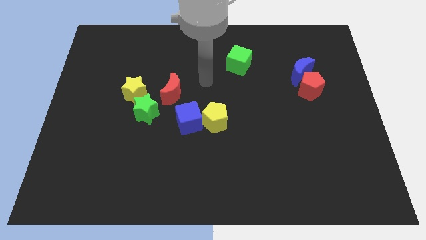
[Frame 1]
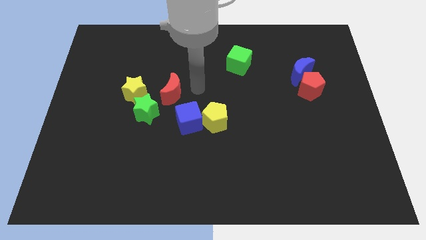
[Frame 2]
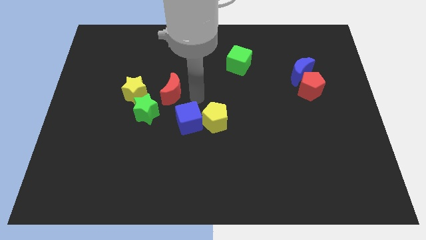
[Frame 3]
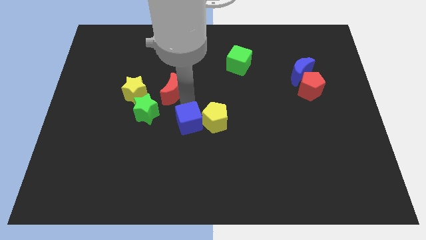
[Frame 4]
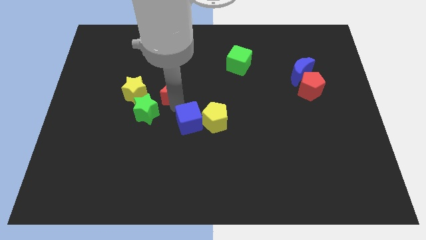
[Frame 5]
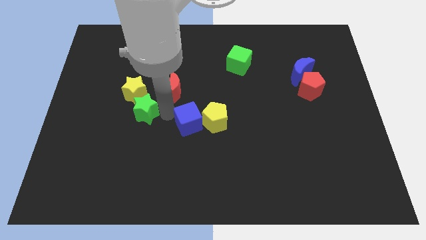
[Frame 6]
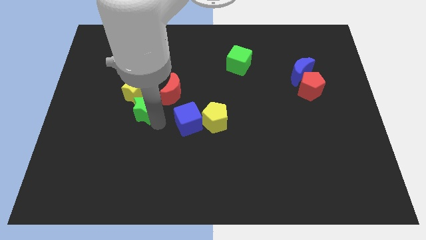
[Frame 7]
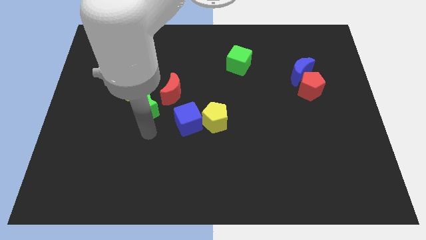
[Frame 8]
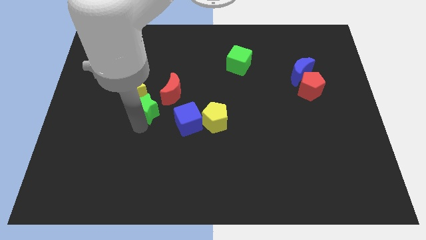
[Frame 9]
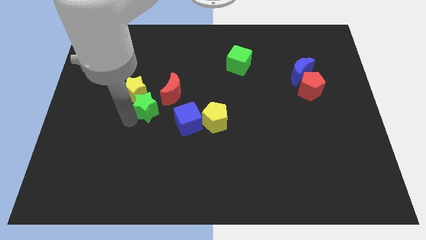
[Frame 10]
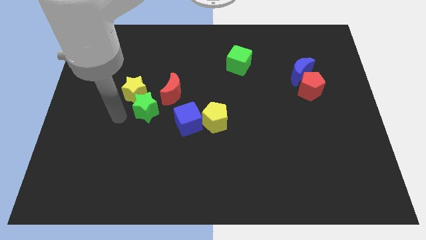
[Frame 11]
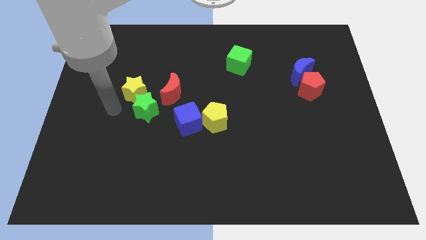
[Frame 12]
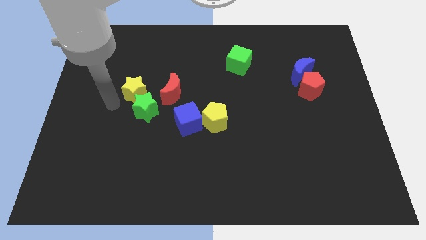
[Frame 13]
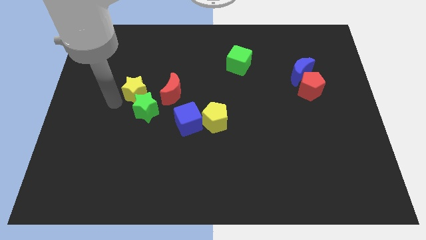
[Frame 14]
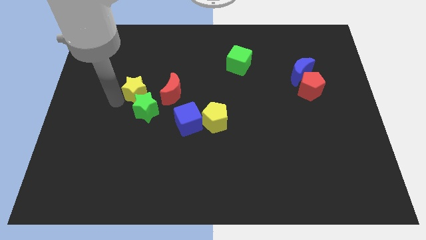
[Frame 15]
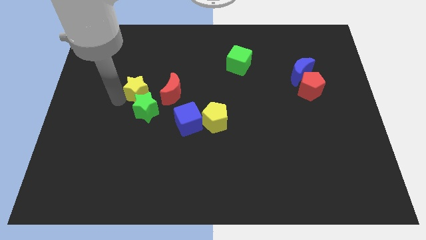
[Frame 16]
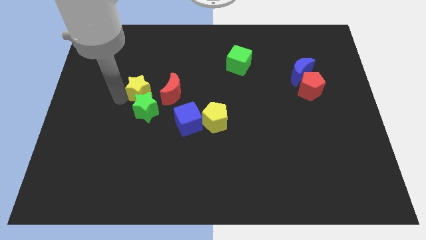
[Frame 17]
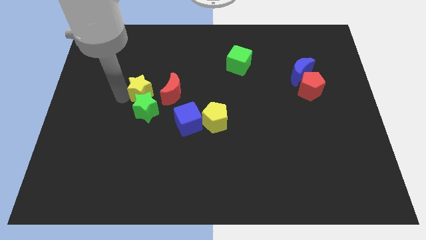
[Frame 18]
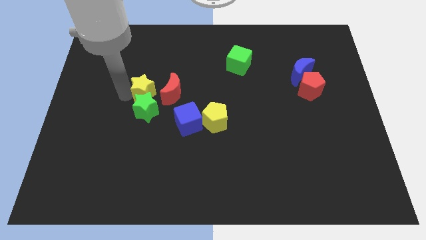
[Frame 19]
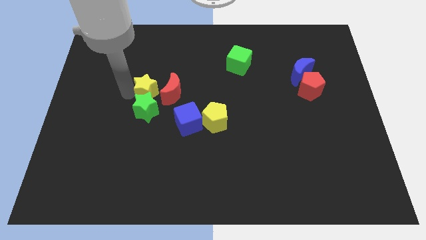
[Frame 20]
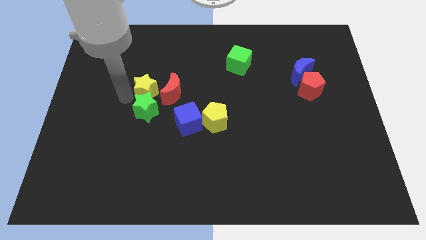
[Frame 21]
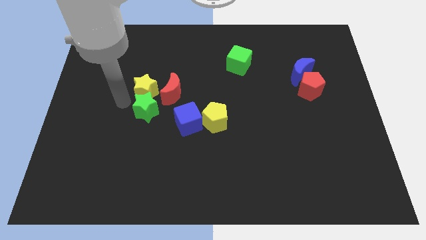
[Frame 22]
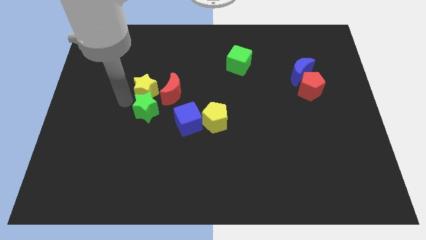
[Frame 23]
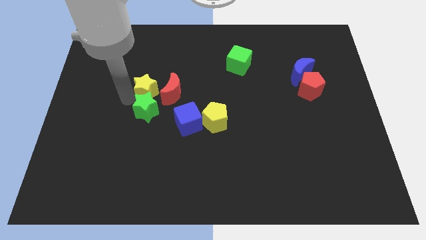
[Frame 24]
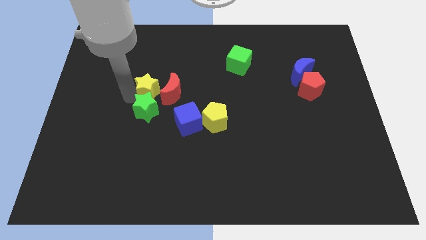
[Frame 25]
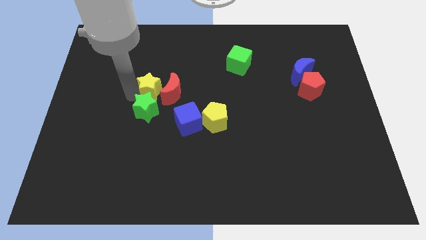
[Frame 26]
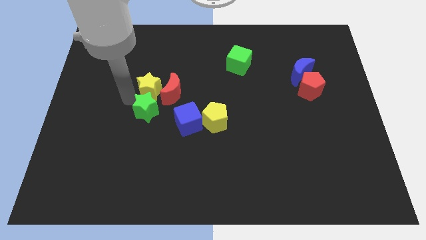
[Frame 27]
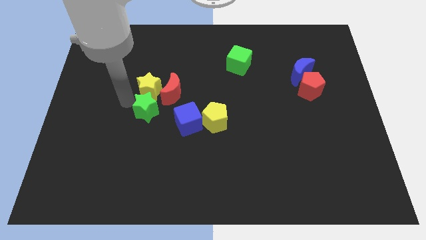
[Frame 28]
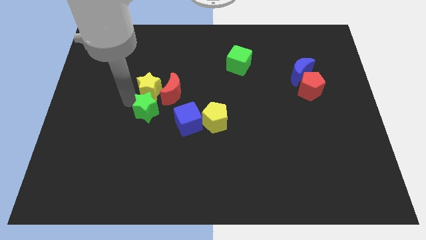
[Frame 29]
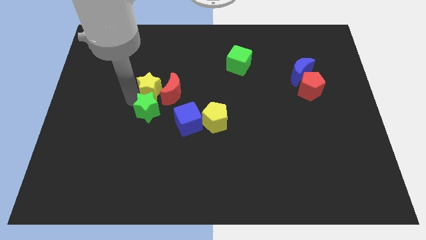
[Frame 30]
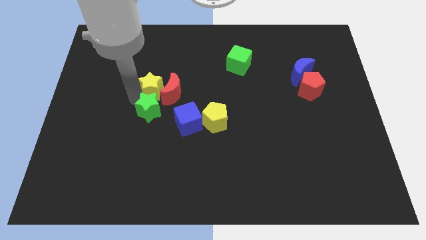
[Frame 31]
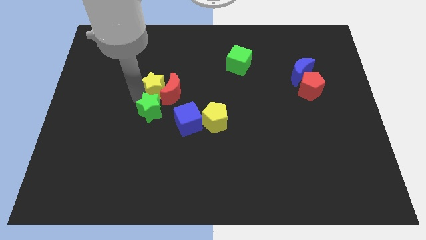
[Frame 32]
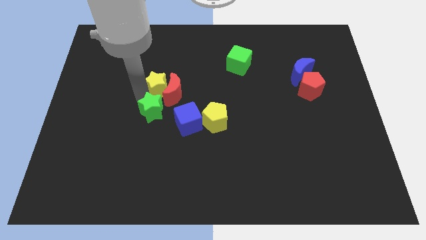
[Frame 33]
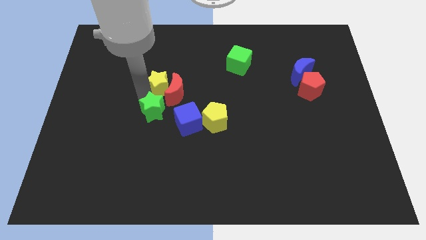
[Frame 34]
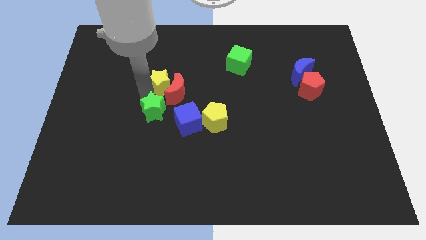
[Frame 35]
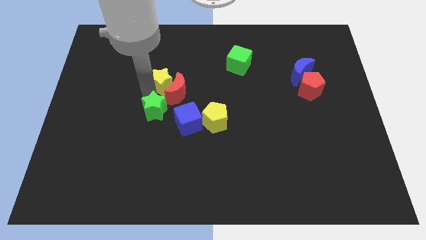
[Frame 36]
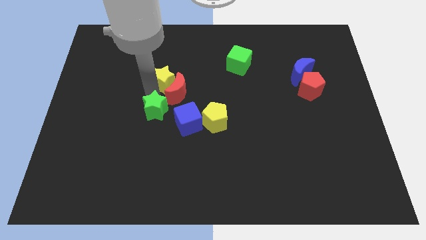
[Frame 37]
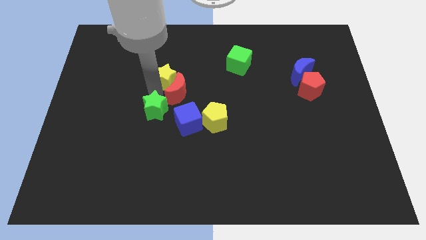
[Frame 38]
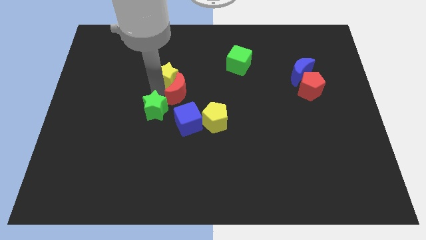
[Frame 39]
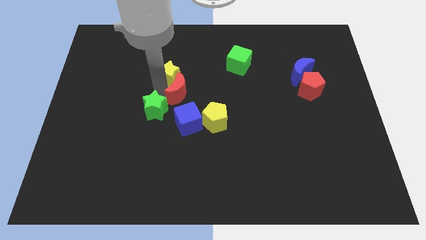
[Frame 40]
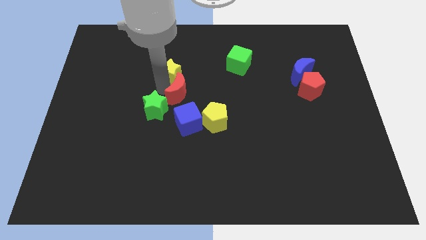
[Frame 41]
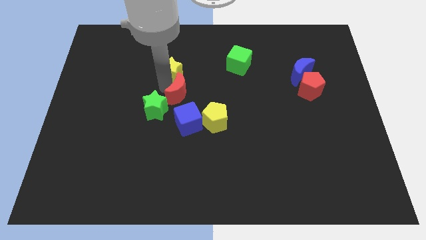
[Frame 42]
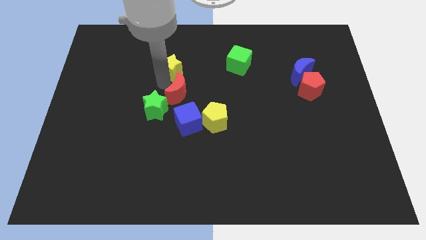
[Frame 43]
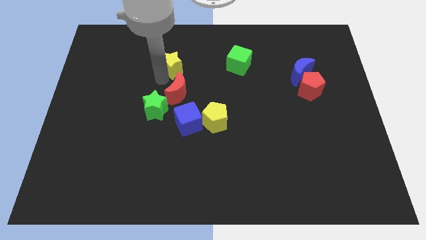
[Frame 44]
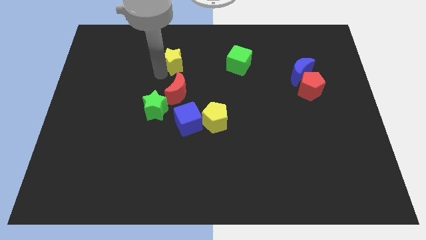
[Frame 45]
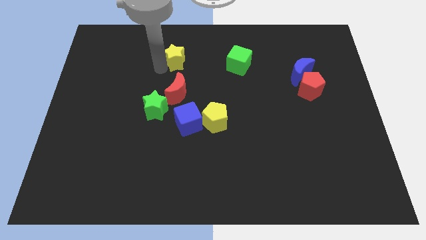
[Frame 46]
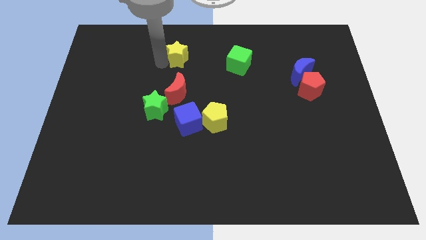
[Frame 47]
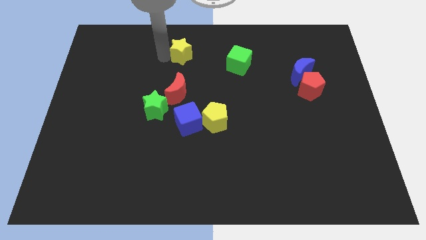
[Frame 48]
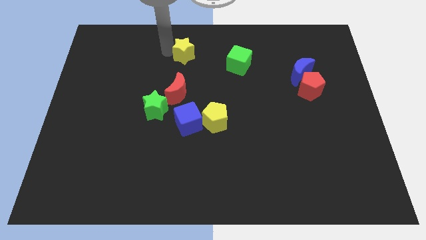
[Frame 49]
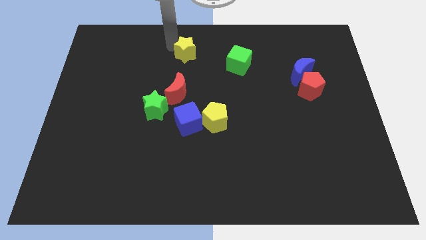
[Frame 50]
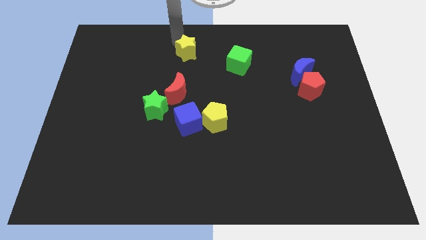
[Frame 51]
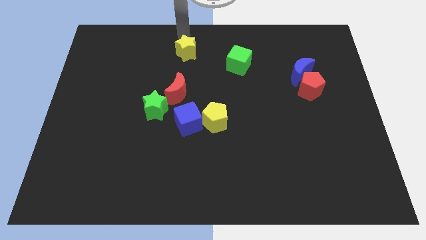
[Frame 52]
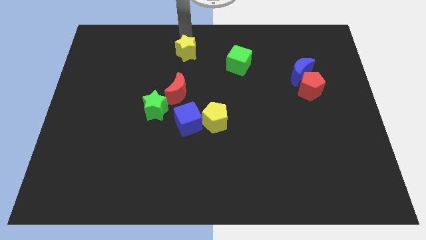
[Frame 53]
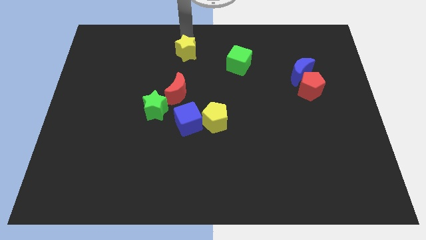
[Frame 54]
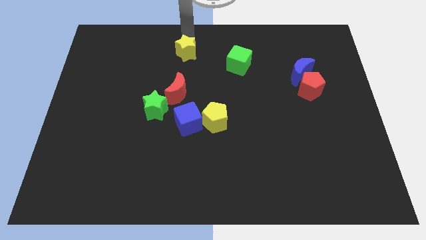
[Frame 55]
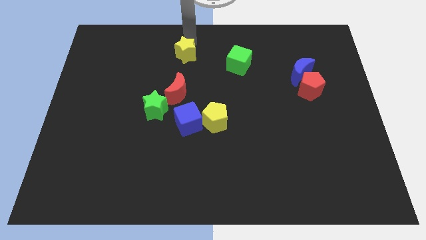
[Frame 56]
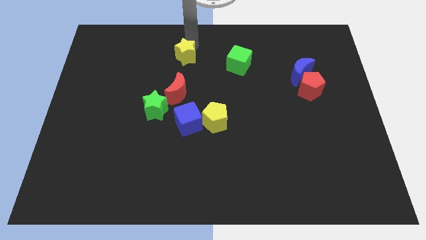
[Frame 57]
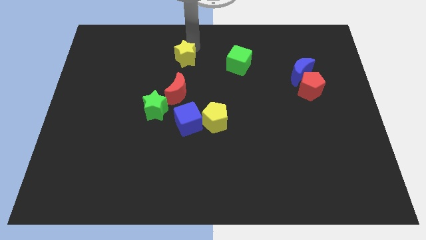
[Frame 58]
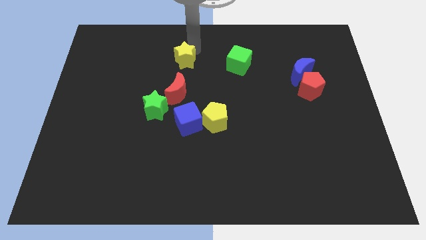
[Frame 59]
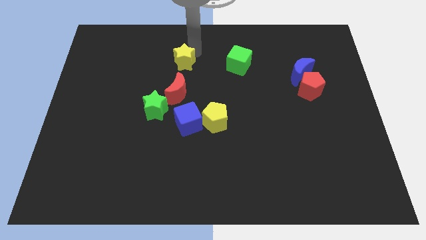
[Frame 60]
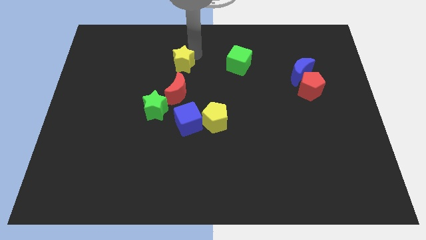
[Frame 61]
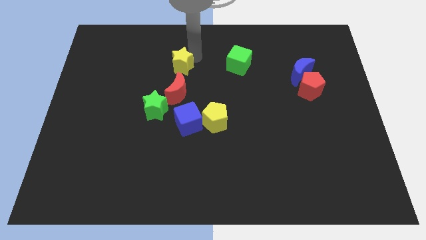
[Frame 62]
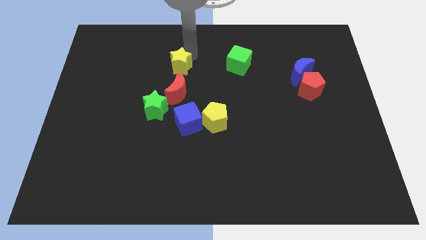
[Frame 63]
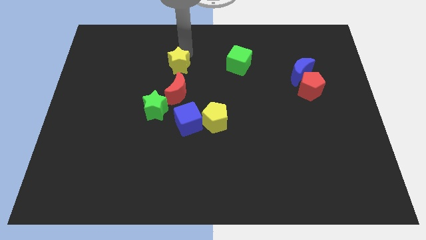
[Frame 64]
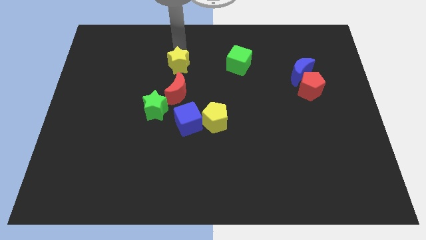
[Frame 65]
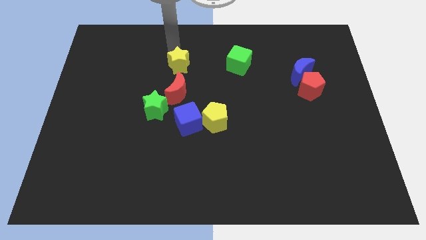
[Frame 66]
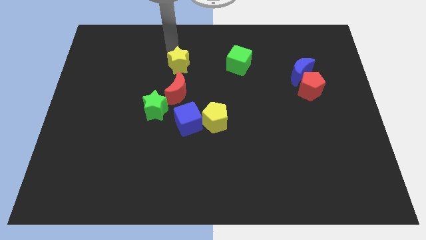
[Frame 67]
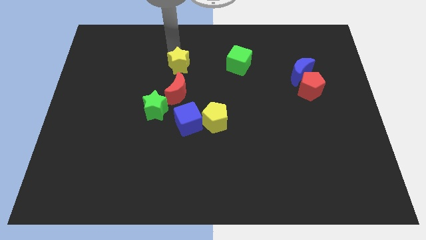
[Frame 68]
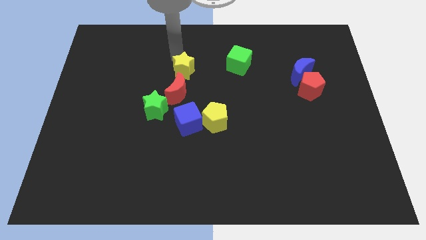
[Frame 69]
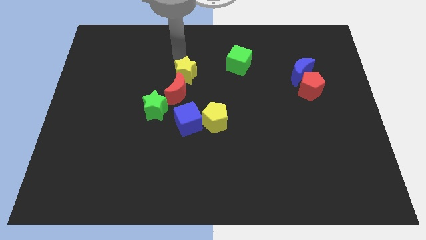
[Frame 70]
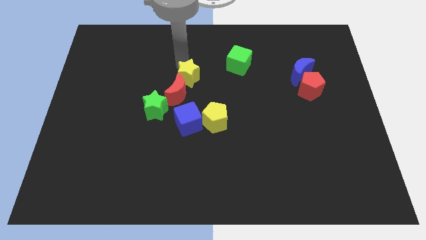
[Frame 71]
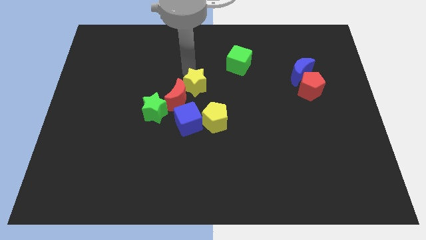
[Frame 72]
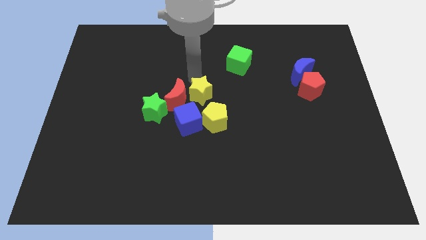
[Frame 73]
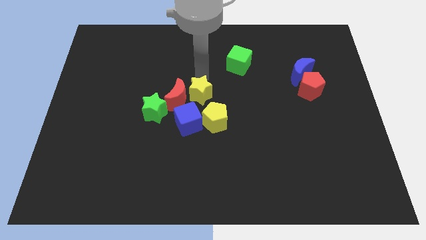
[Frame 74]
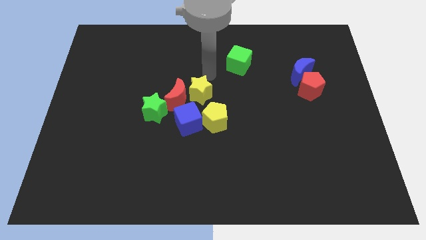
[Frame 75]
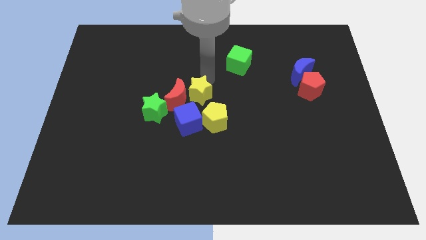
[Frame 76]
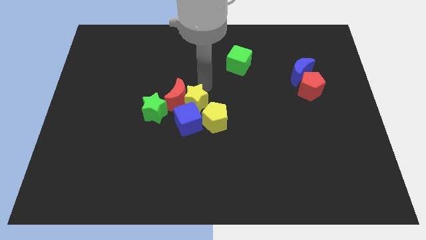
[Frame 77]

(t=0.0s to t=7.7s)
put the yellow star towards the blue cube
